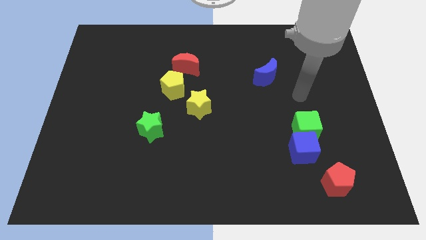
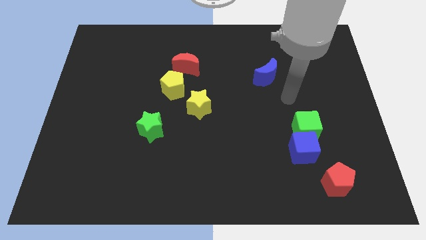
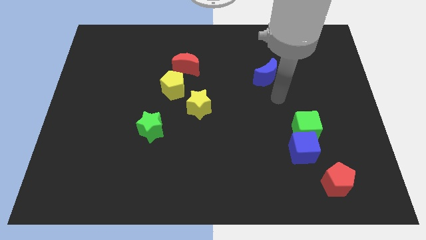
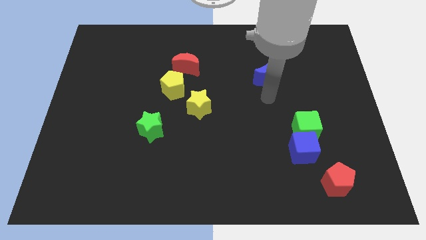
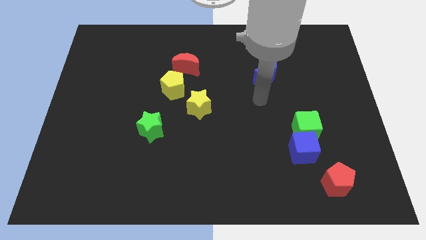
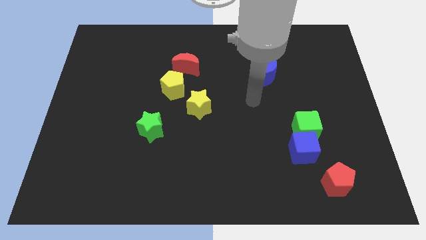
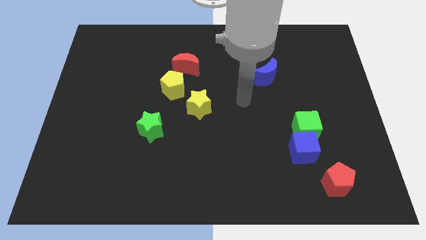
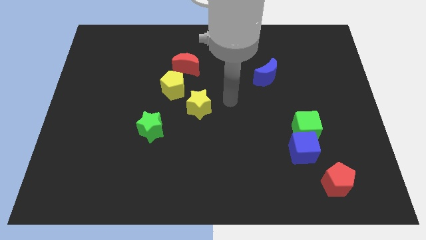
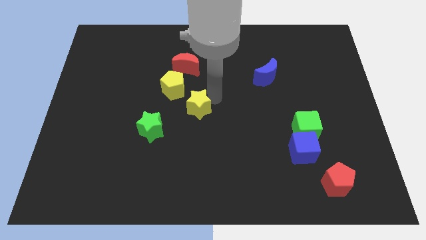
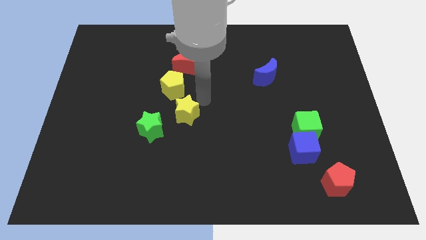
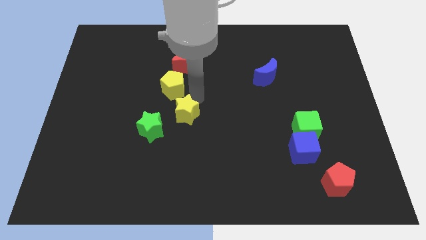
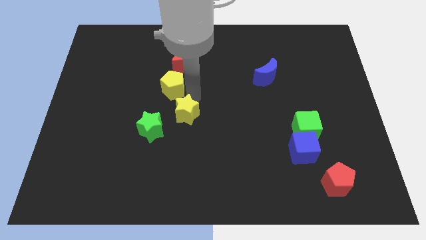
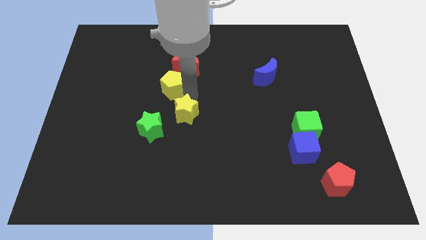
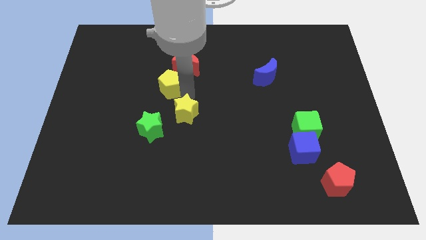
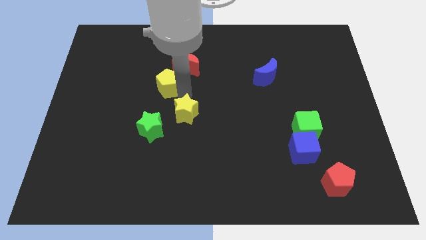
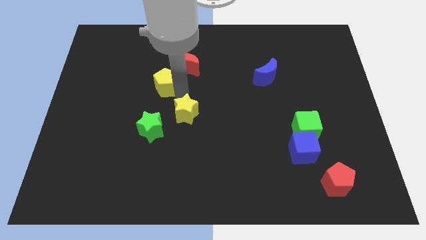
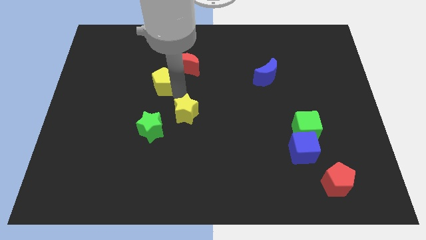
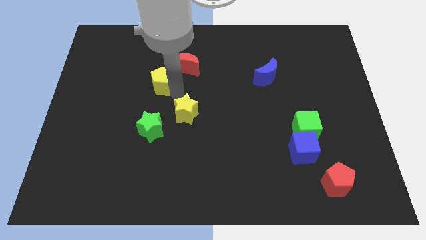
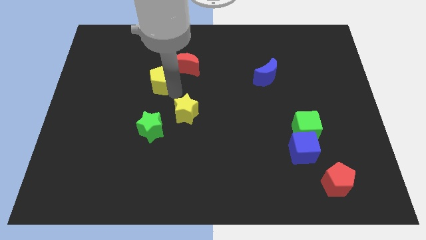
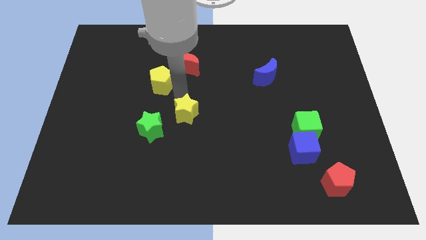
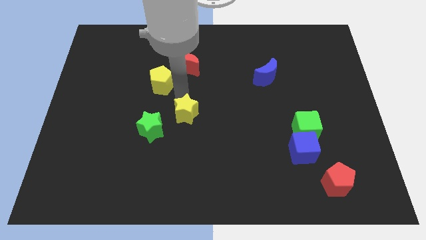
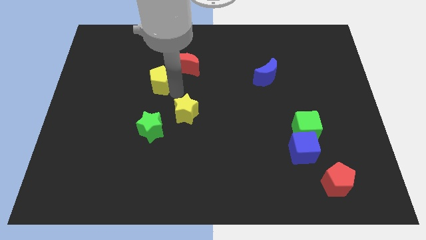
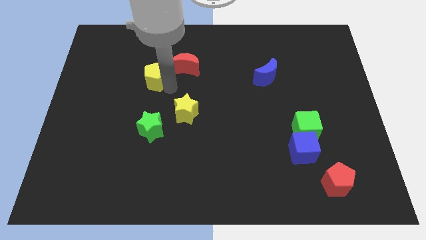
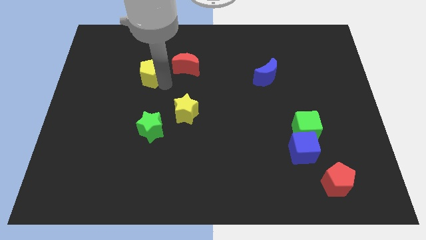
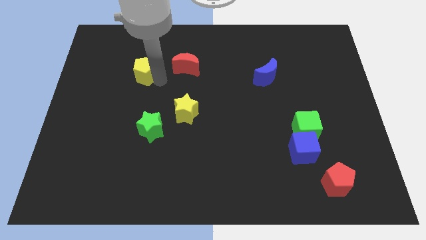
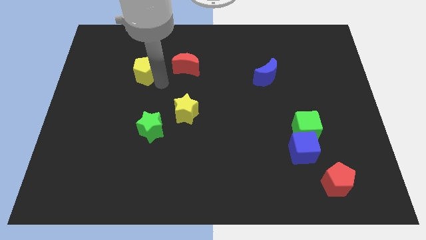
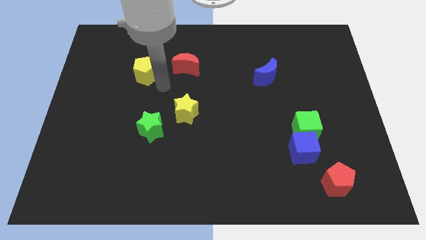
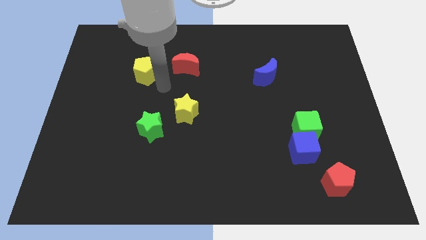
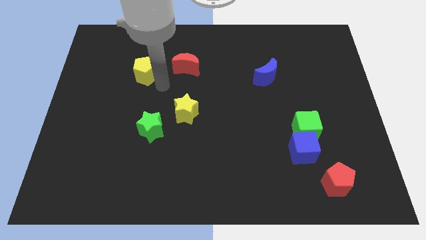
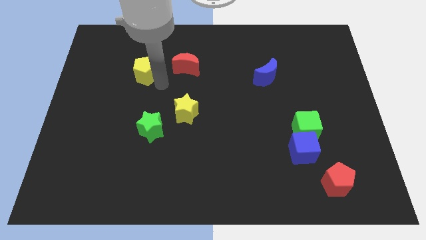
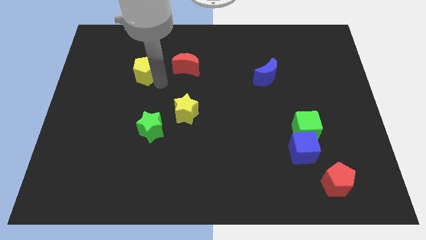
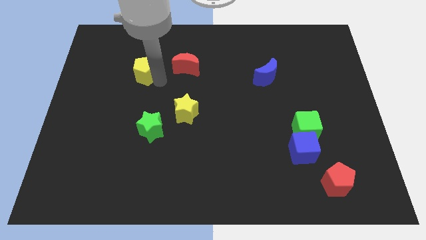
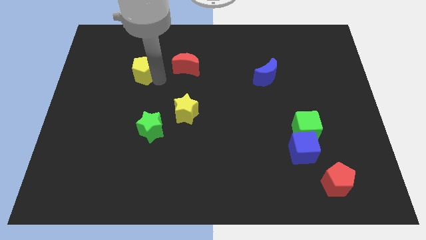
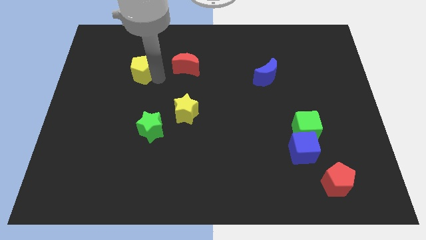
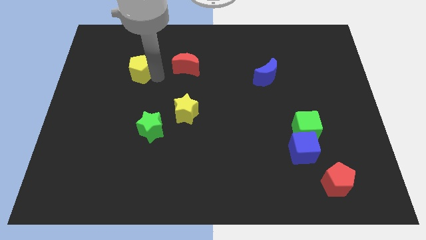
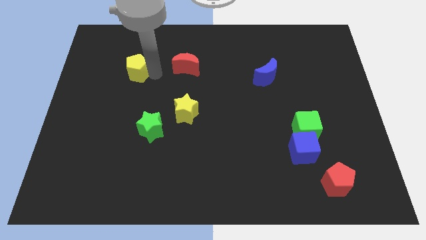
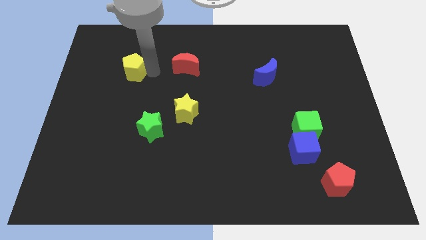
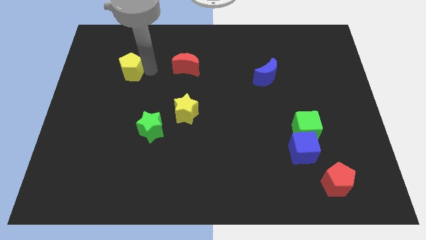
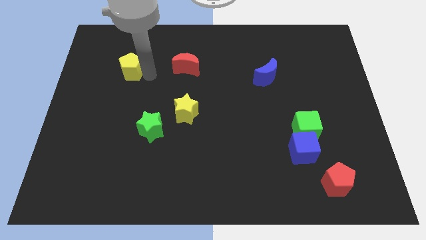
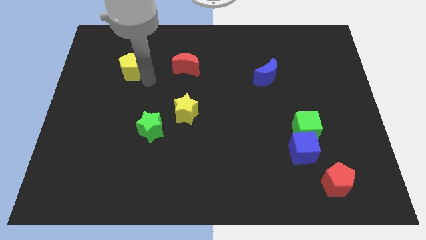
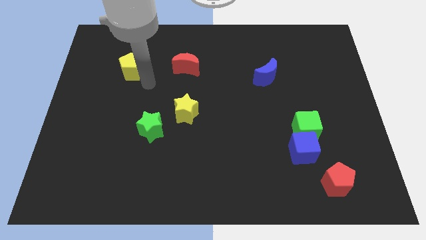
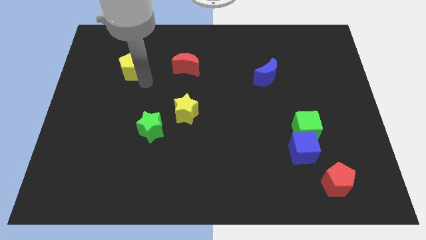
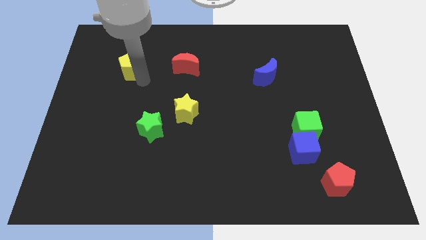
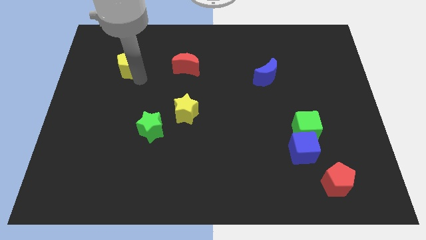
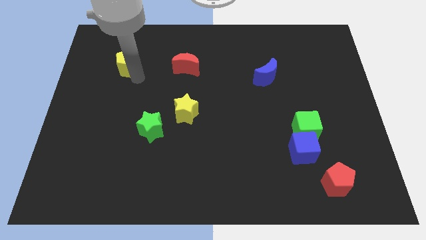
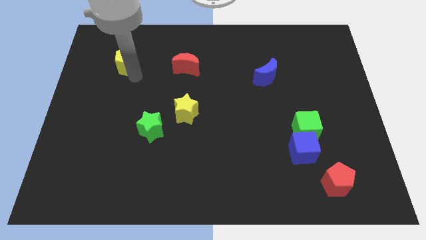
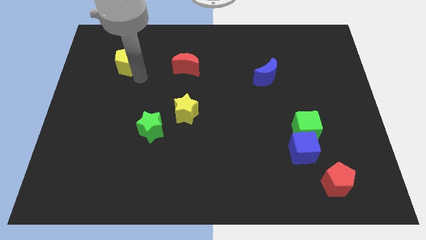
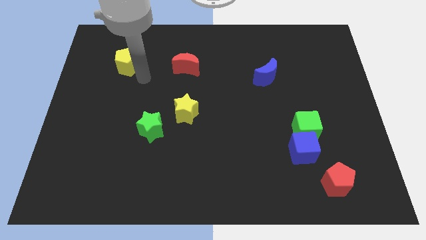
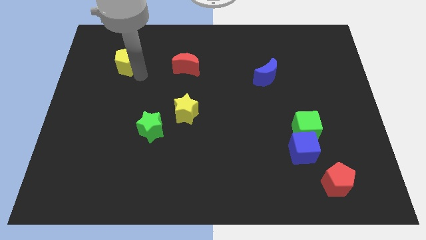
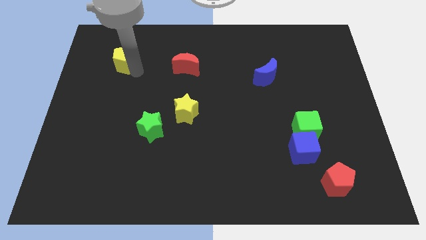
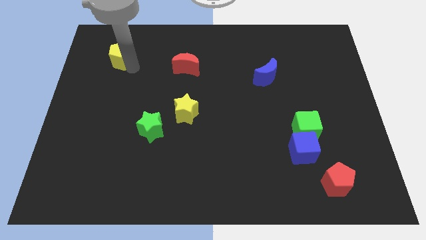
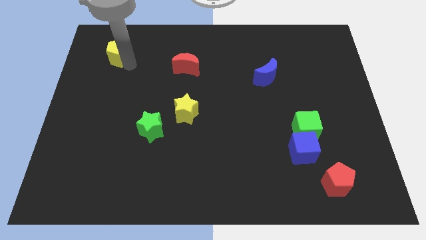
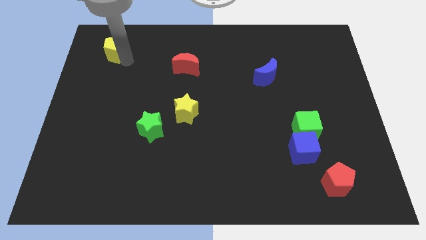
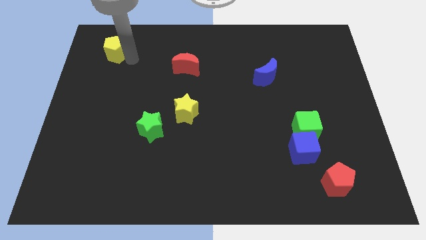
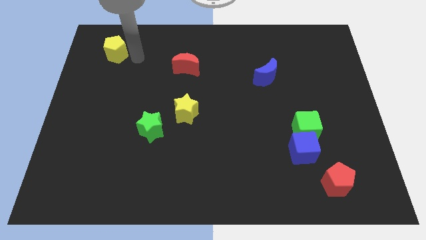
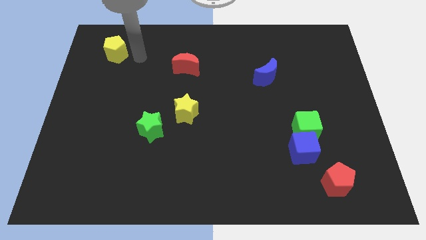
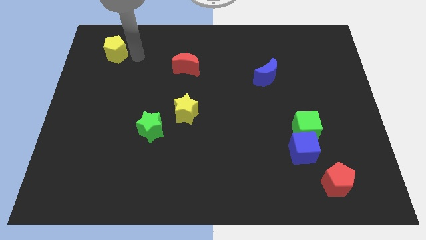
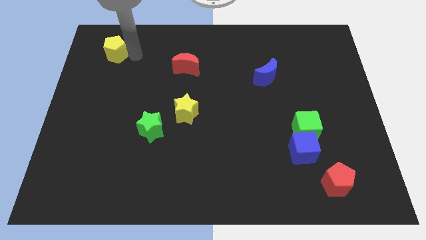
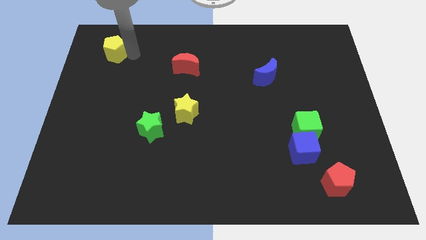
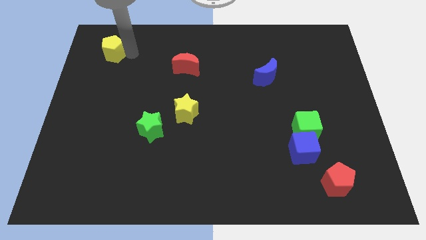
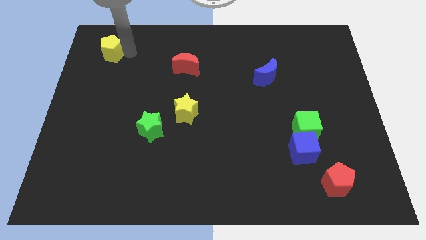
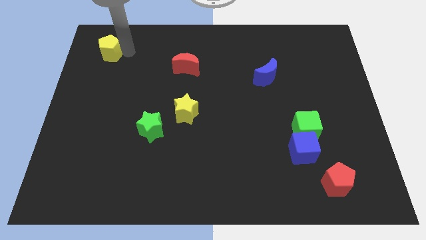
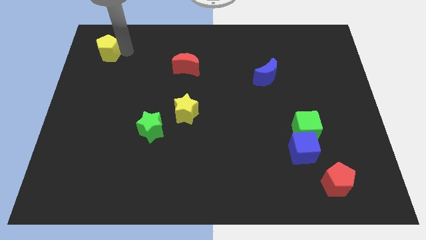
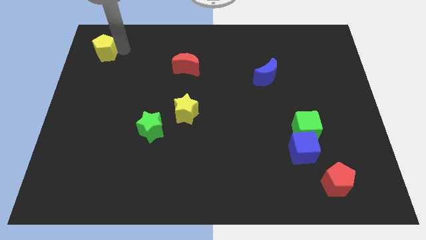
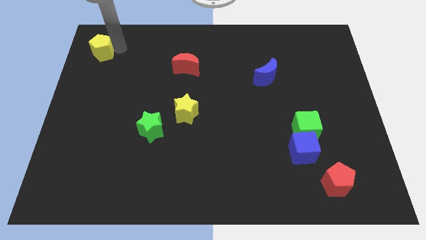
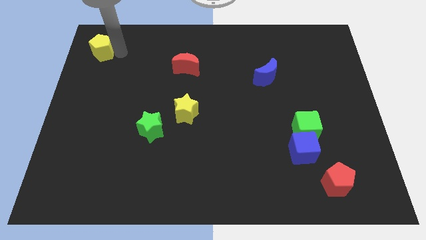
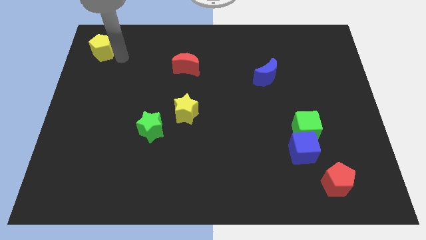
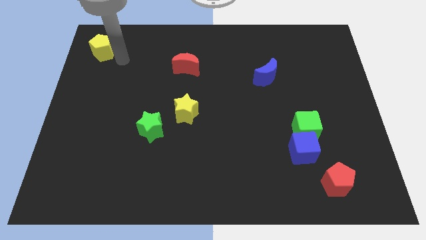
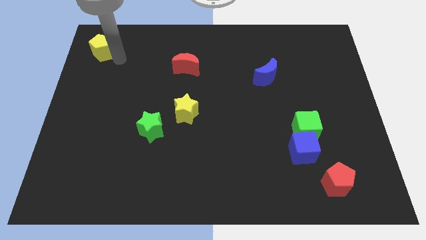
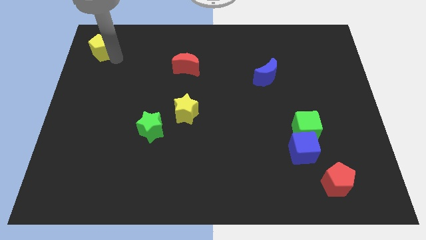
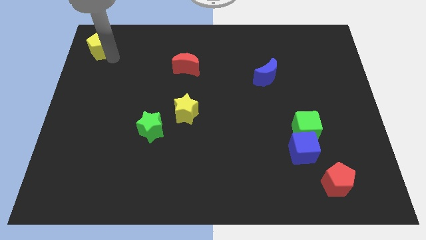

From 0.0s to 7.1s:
slide the yellow pentagon to the top left
